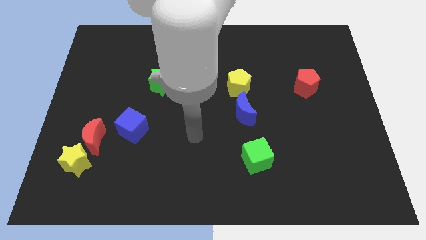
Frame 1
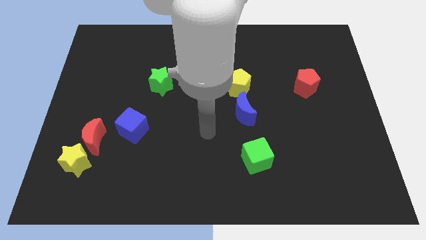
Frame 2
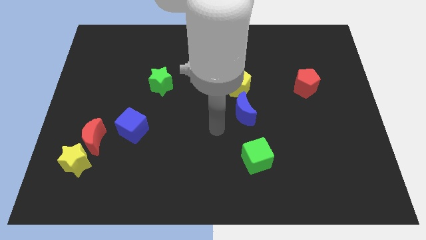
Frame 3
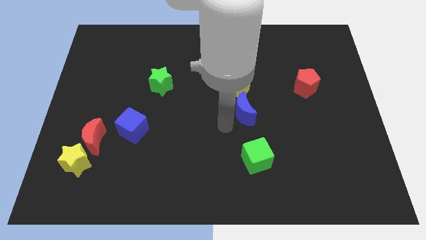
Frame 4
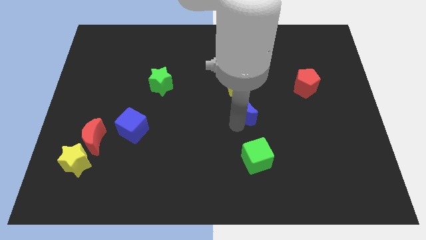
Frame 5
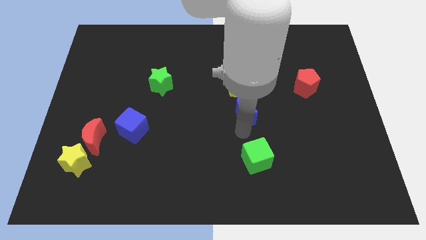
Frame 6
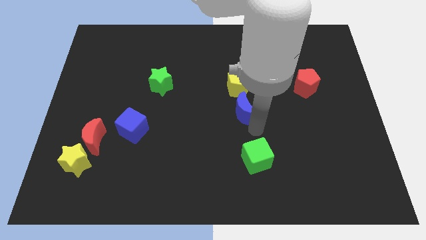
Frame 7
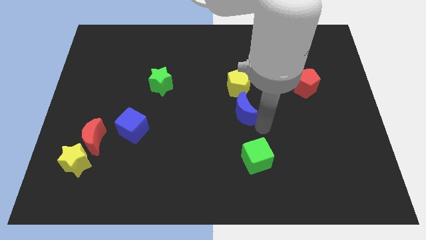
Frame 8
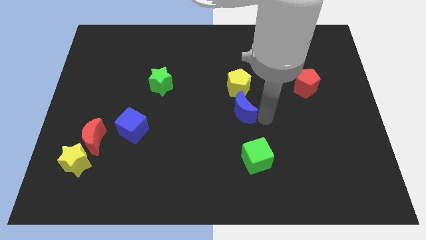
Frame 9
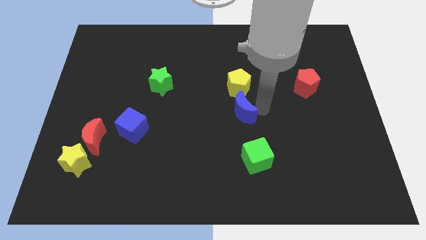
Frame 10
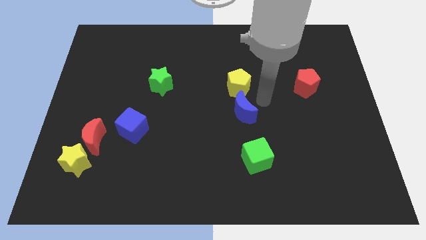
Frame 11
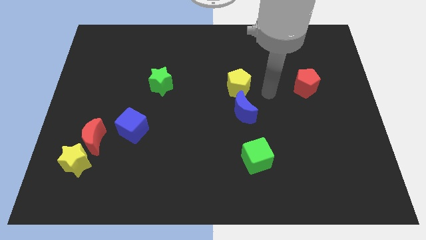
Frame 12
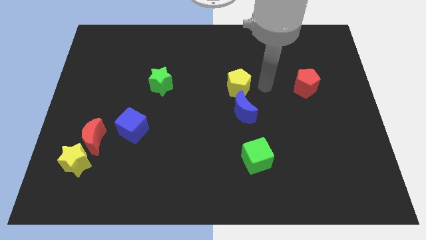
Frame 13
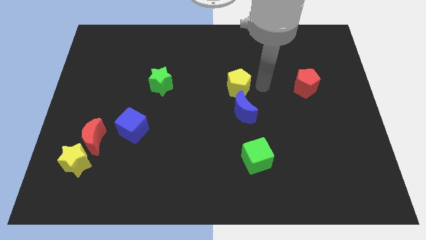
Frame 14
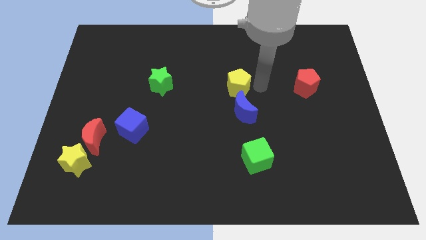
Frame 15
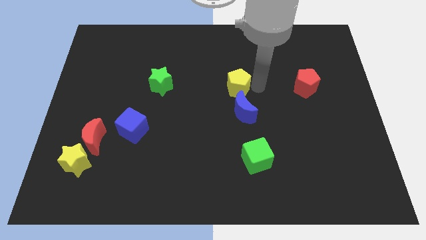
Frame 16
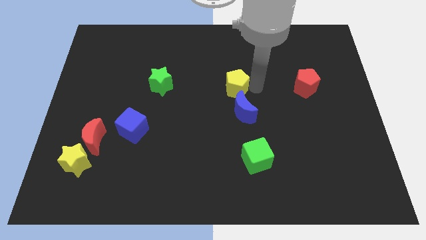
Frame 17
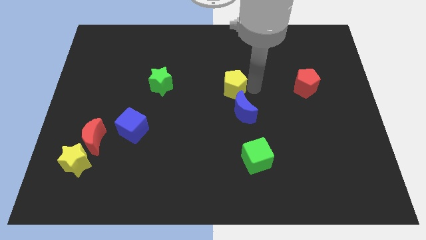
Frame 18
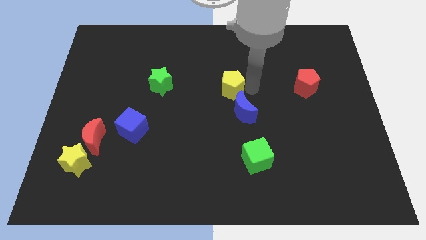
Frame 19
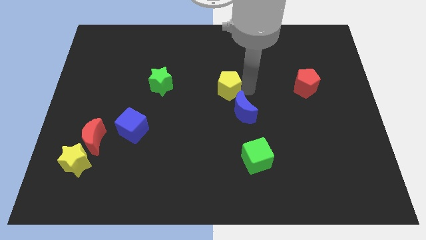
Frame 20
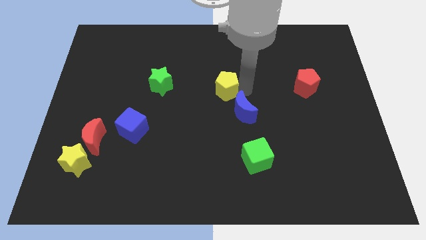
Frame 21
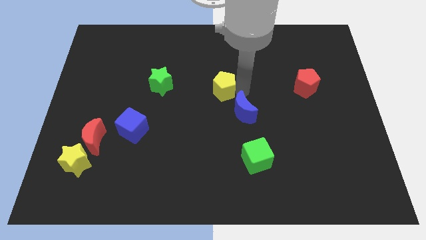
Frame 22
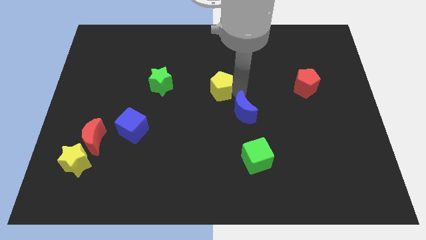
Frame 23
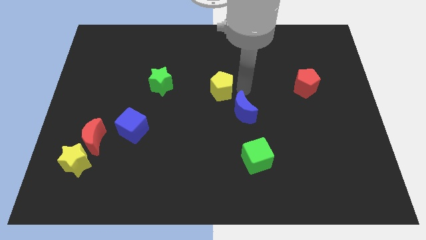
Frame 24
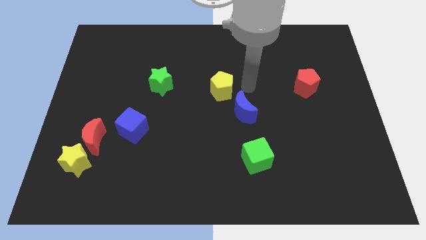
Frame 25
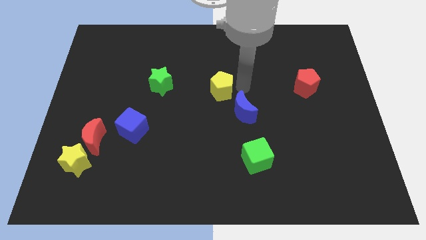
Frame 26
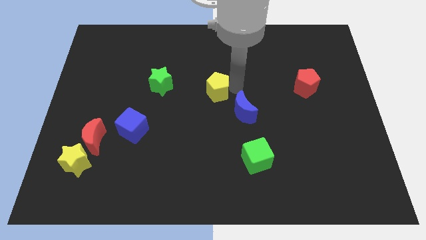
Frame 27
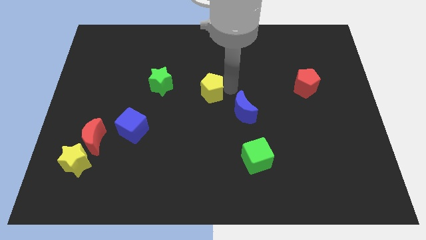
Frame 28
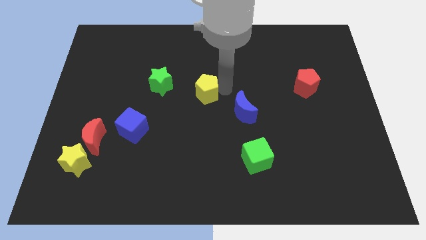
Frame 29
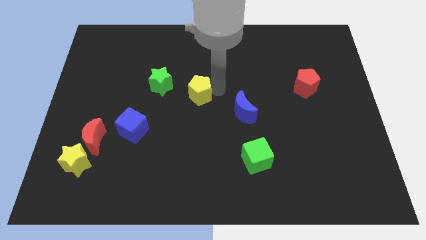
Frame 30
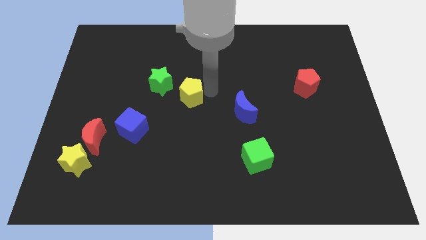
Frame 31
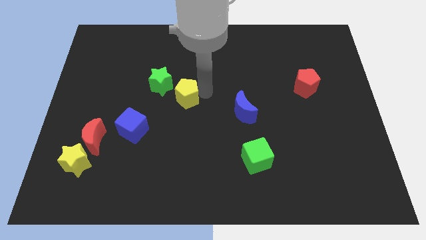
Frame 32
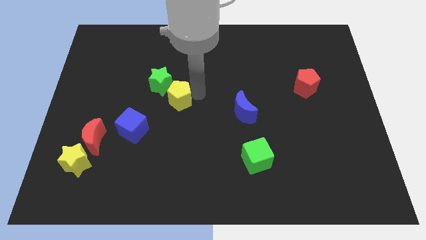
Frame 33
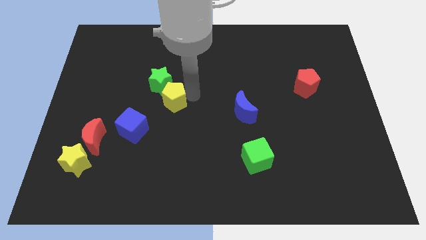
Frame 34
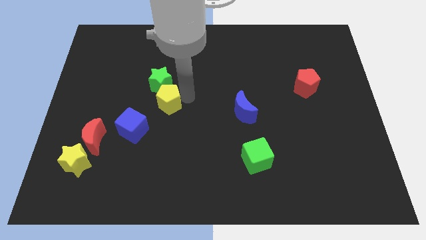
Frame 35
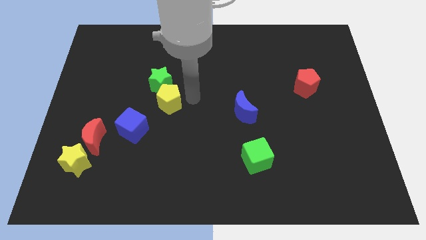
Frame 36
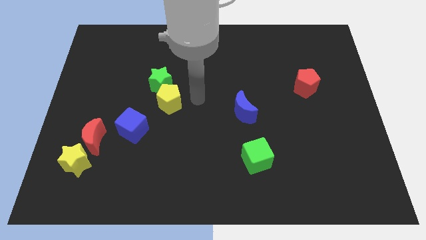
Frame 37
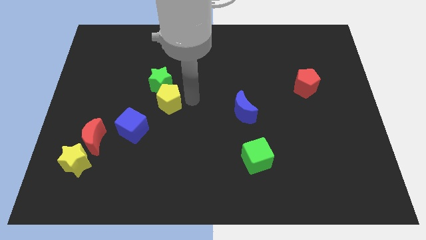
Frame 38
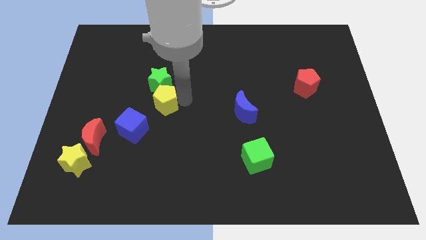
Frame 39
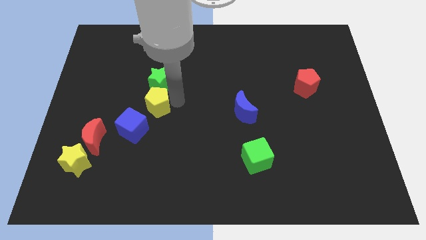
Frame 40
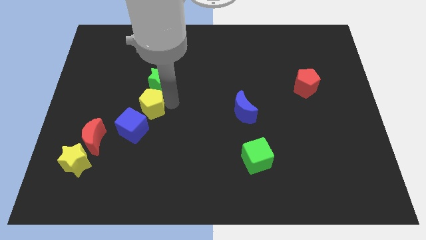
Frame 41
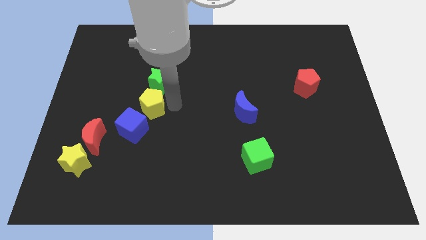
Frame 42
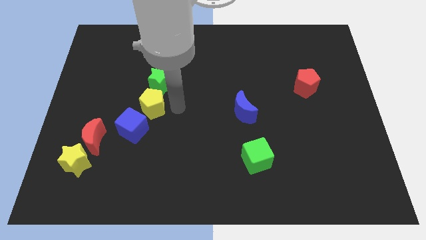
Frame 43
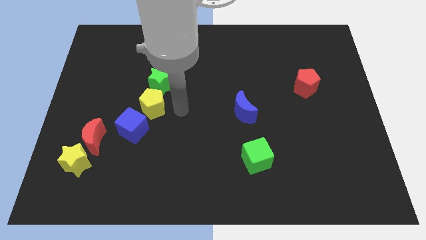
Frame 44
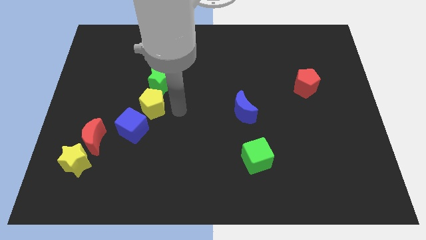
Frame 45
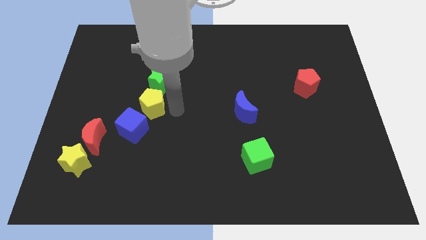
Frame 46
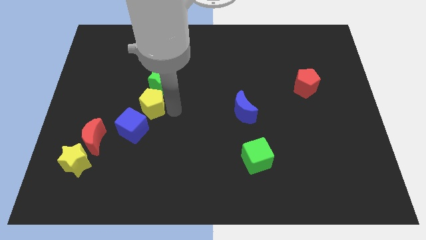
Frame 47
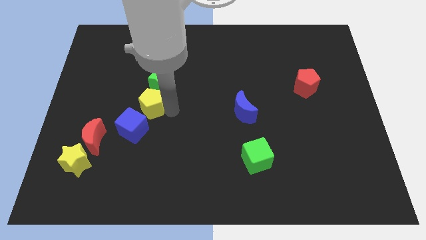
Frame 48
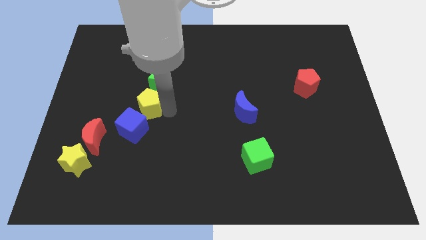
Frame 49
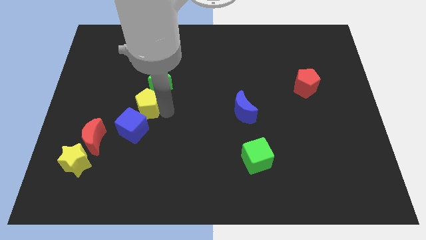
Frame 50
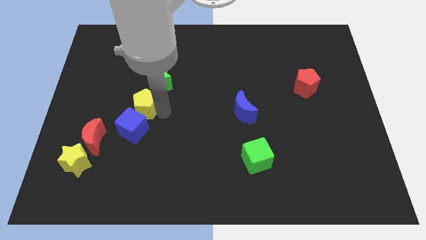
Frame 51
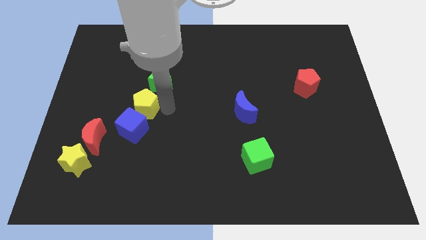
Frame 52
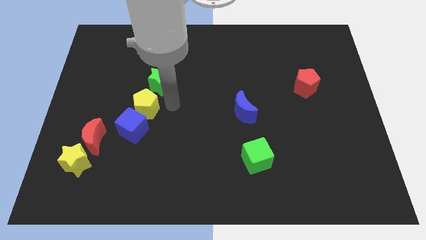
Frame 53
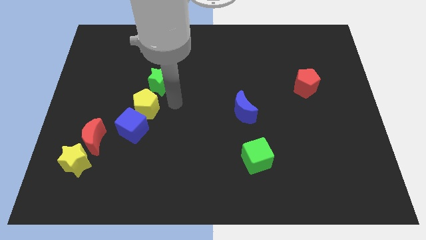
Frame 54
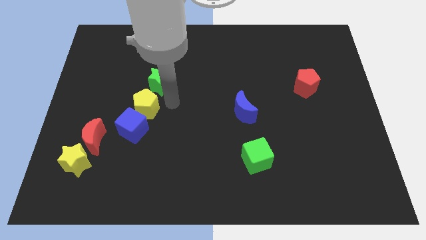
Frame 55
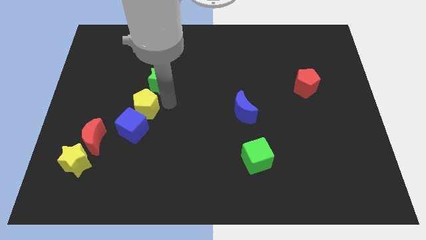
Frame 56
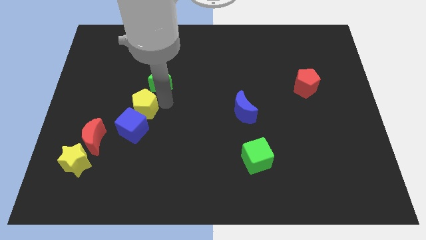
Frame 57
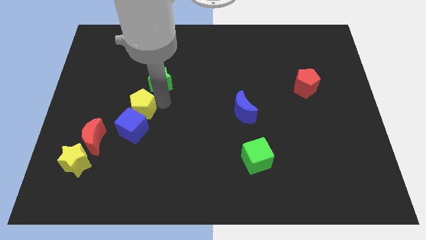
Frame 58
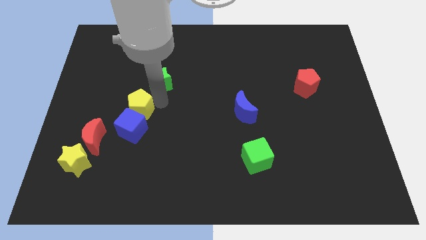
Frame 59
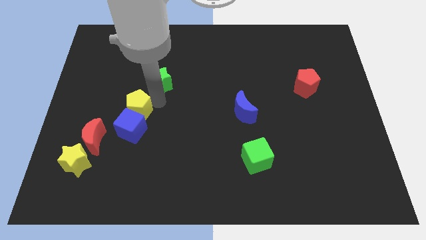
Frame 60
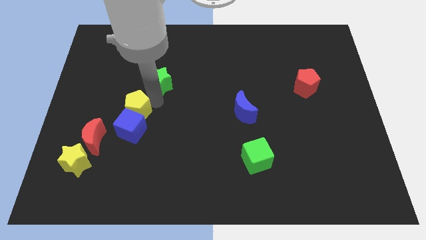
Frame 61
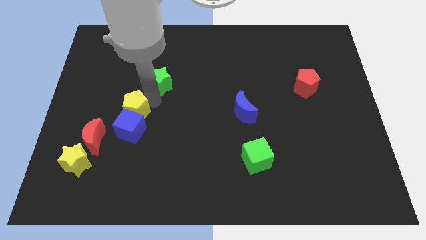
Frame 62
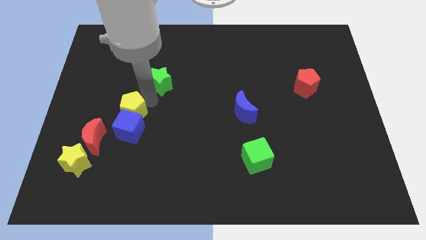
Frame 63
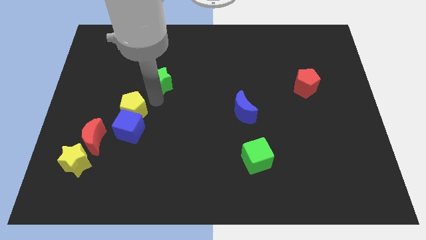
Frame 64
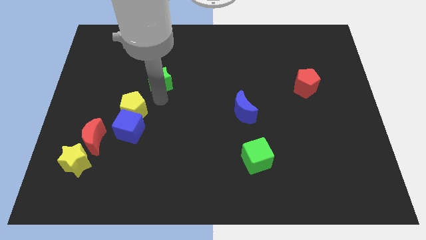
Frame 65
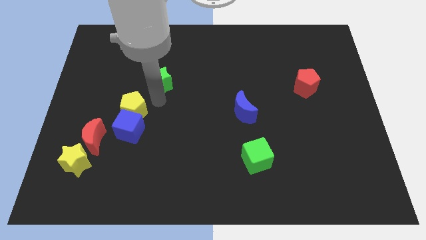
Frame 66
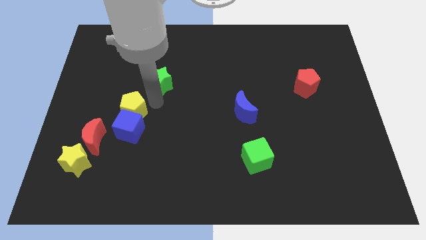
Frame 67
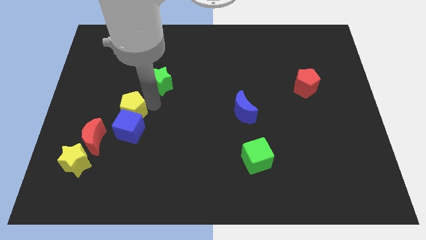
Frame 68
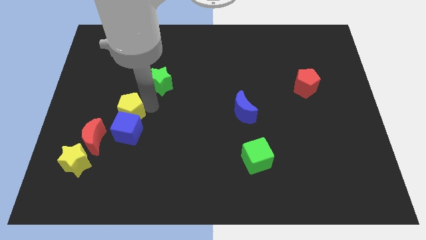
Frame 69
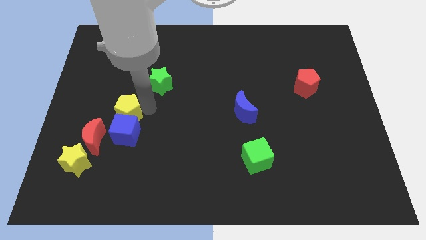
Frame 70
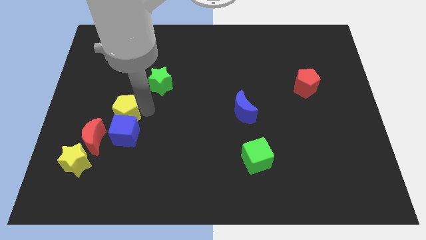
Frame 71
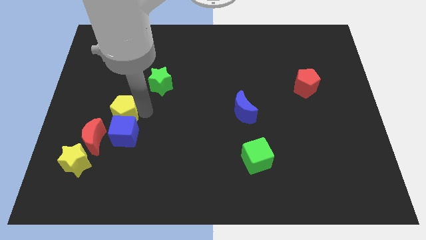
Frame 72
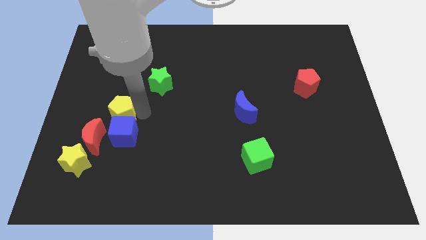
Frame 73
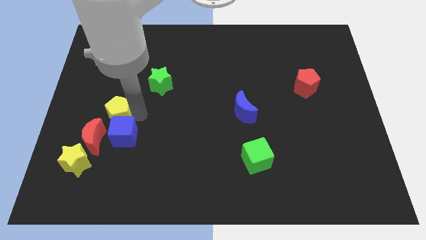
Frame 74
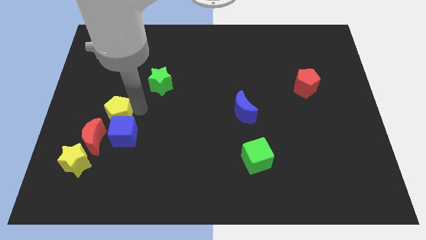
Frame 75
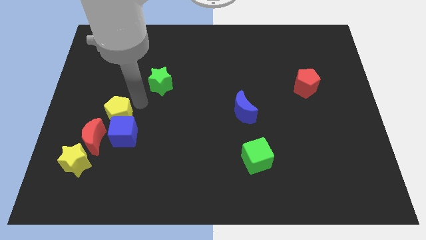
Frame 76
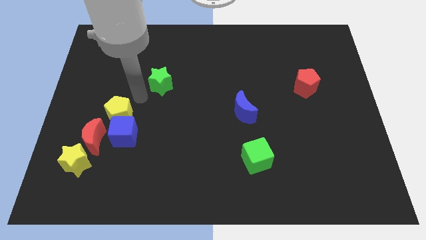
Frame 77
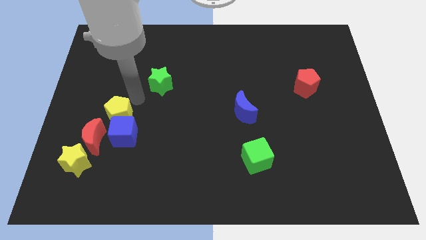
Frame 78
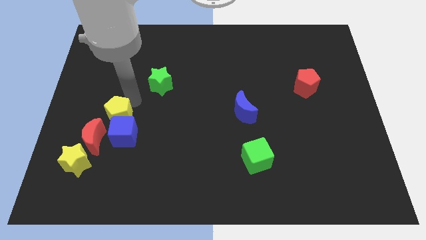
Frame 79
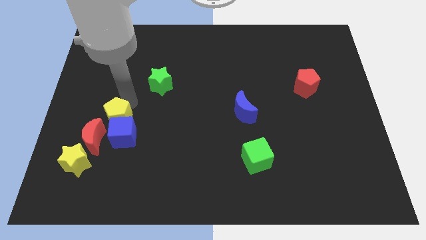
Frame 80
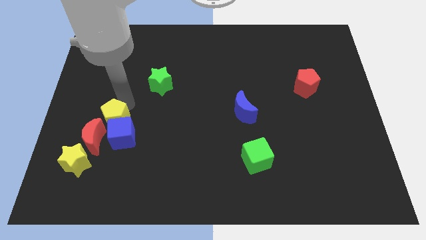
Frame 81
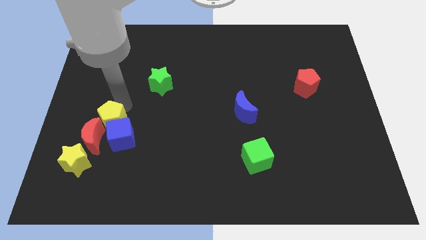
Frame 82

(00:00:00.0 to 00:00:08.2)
push the yellow pentagon to the red moon
